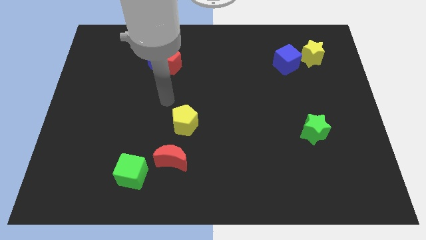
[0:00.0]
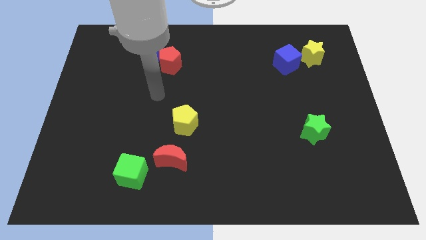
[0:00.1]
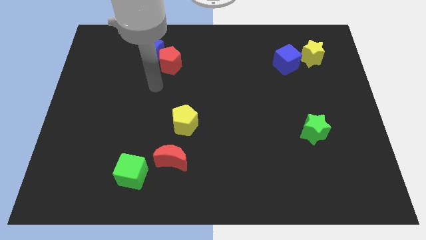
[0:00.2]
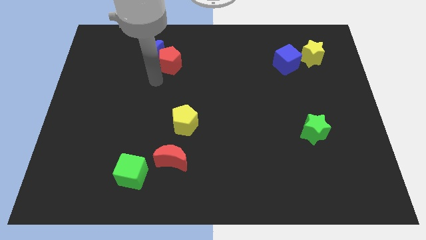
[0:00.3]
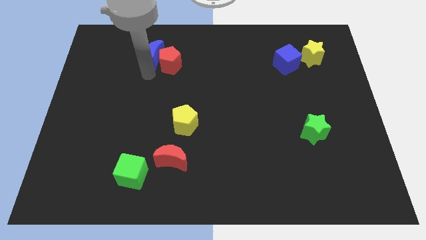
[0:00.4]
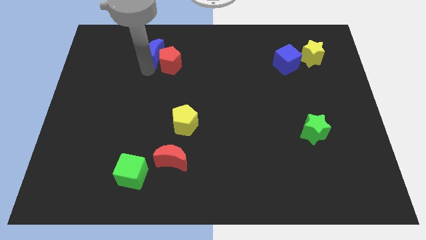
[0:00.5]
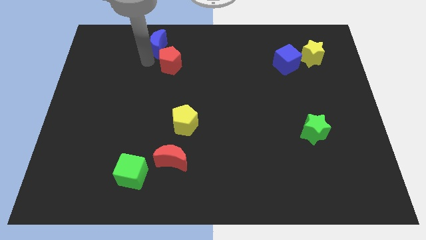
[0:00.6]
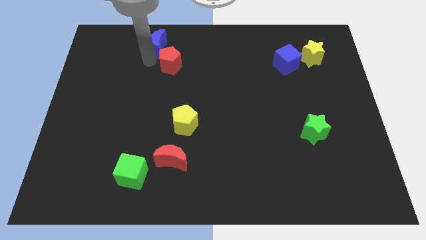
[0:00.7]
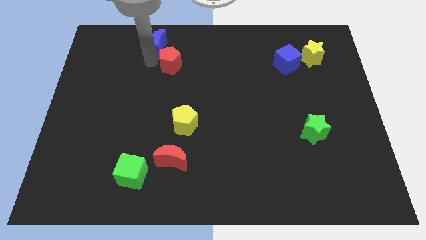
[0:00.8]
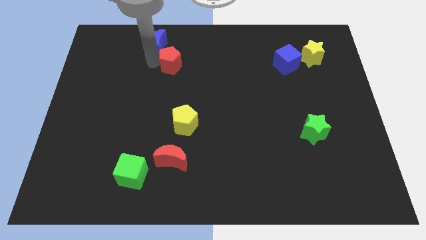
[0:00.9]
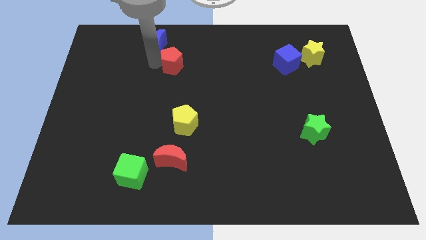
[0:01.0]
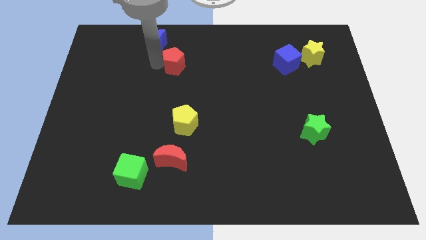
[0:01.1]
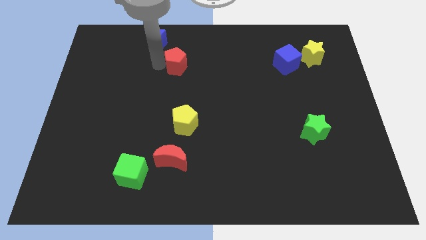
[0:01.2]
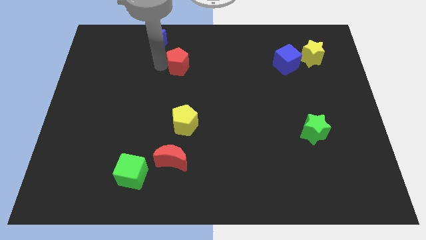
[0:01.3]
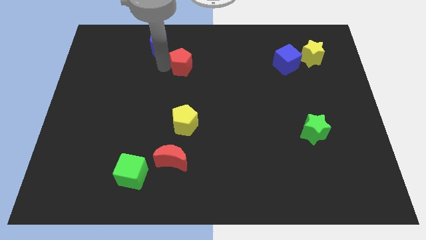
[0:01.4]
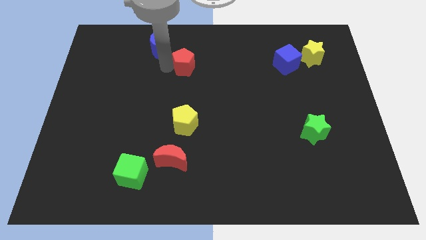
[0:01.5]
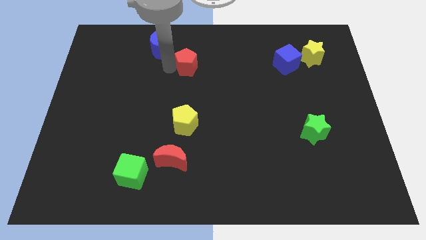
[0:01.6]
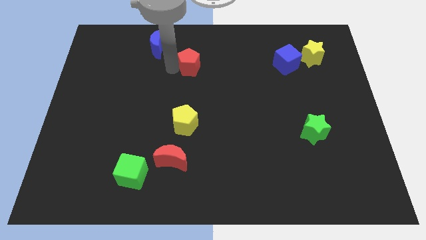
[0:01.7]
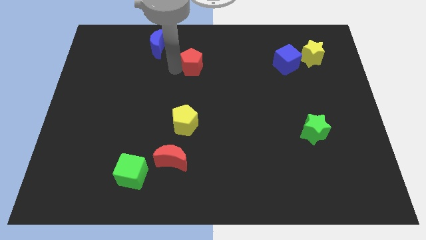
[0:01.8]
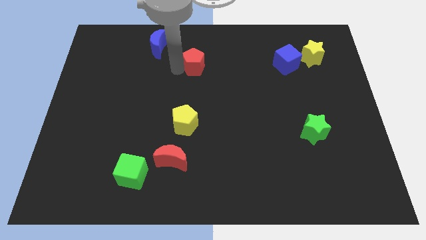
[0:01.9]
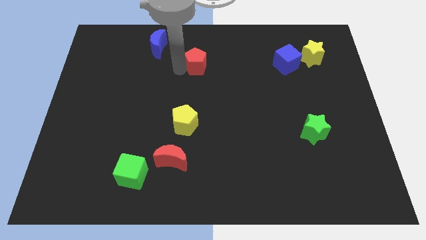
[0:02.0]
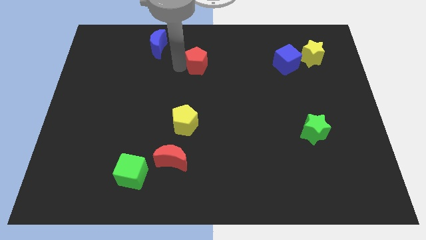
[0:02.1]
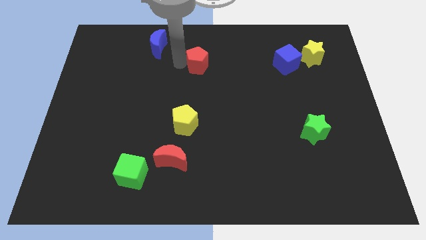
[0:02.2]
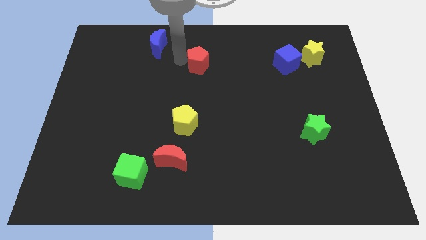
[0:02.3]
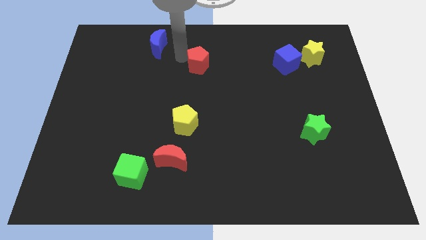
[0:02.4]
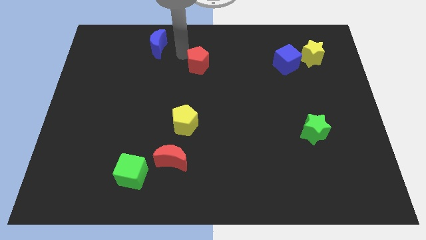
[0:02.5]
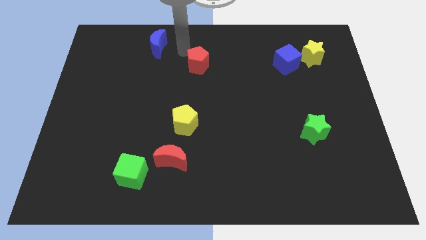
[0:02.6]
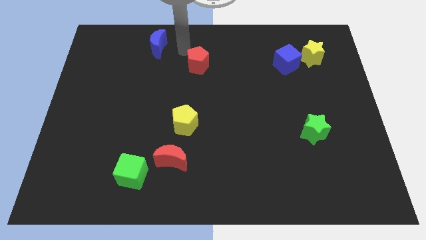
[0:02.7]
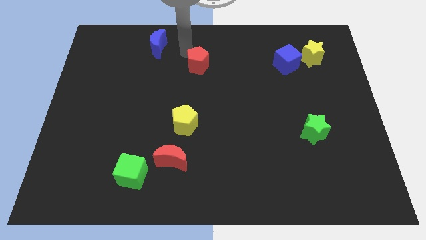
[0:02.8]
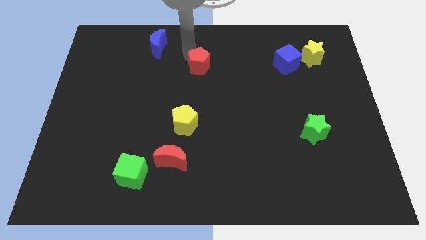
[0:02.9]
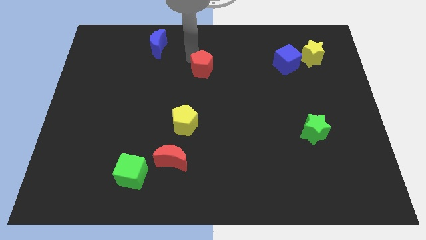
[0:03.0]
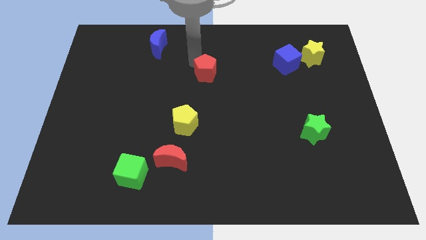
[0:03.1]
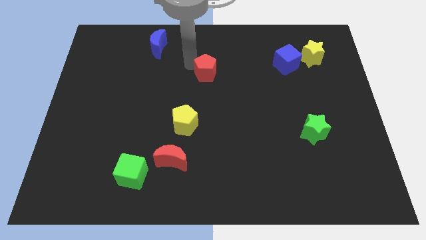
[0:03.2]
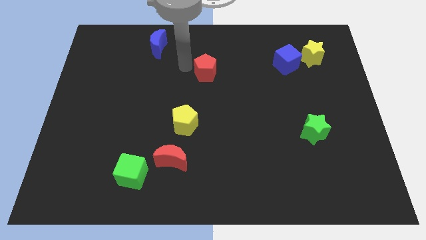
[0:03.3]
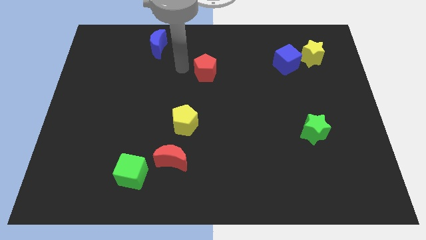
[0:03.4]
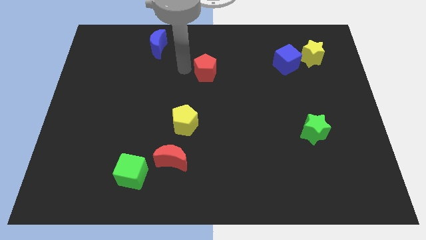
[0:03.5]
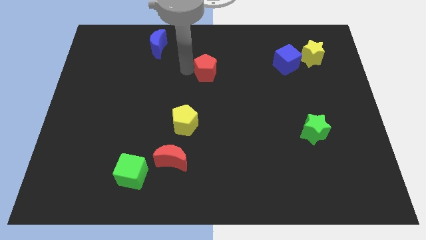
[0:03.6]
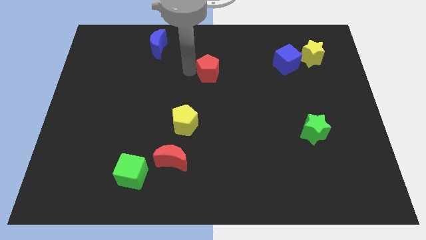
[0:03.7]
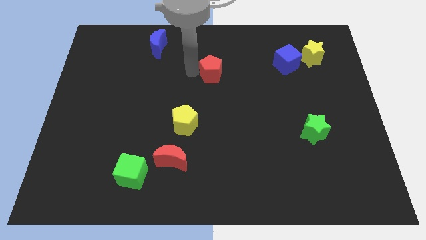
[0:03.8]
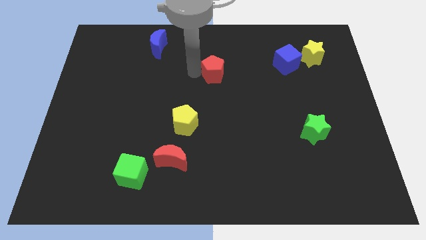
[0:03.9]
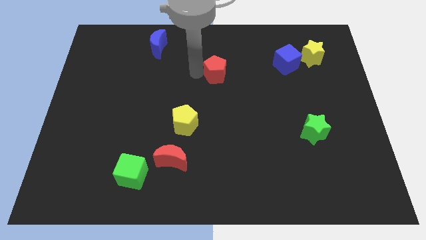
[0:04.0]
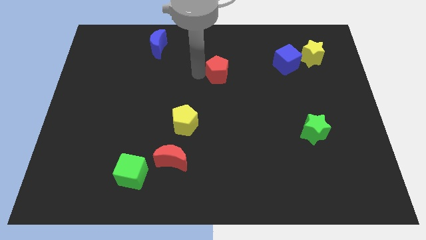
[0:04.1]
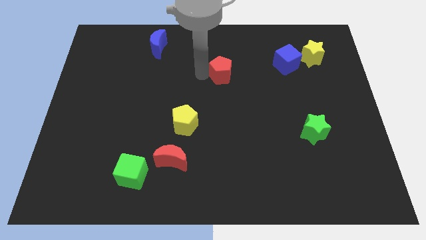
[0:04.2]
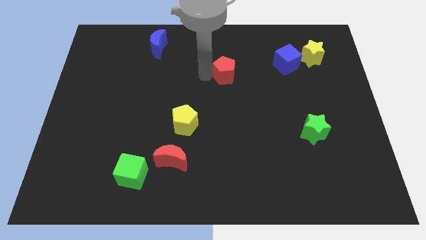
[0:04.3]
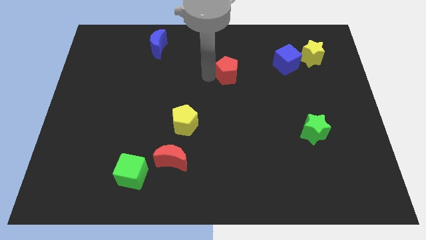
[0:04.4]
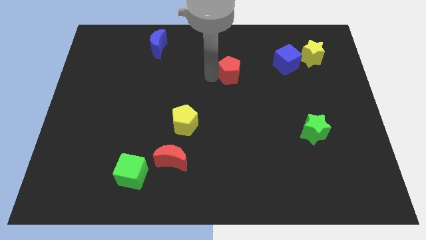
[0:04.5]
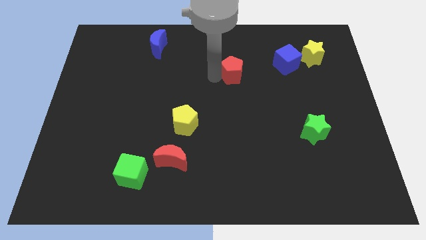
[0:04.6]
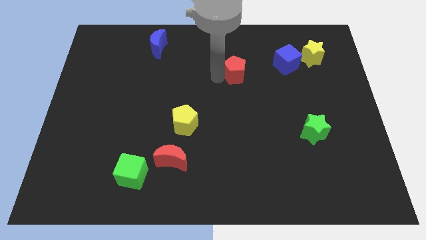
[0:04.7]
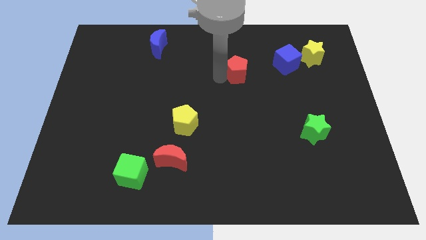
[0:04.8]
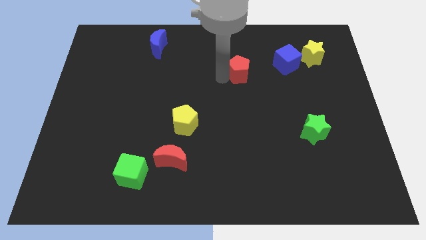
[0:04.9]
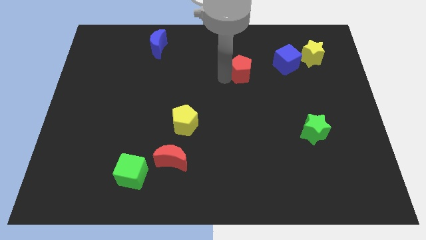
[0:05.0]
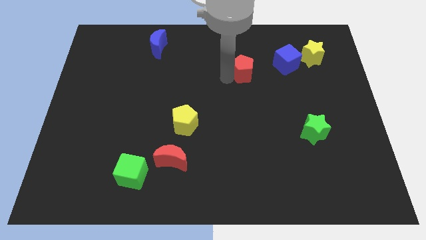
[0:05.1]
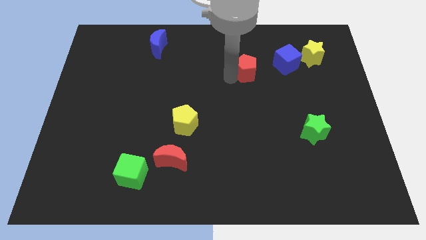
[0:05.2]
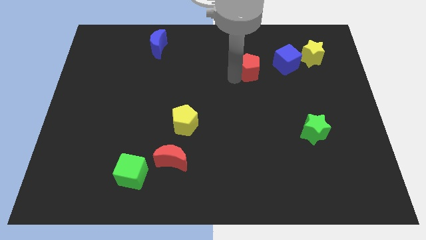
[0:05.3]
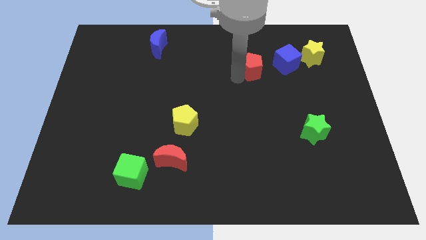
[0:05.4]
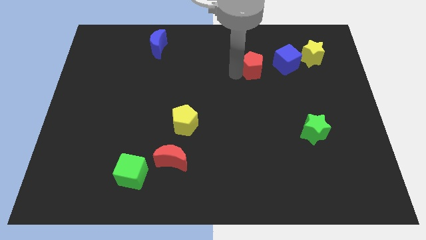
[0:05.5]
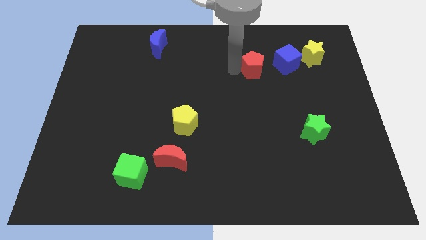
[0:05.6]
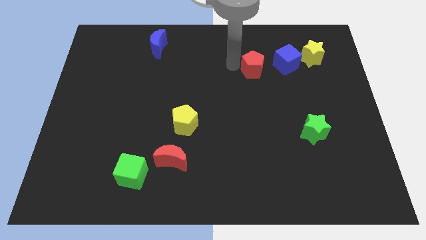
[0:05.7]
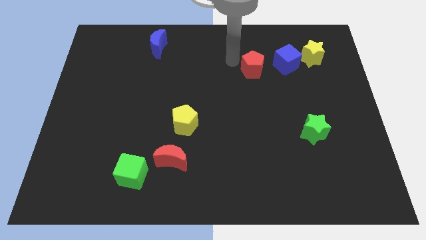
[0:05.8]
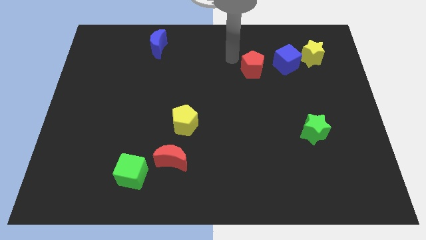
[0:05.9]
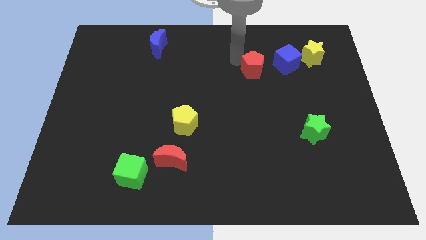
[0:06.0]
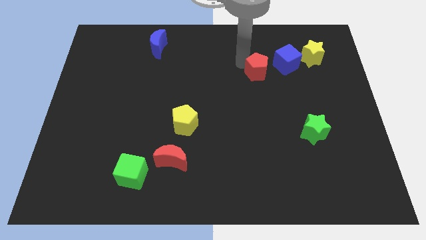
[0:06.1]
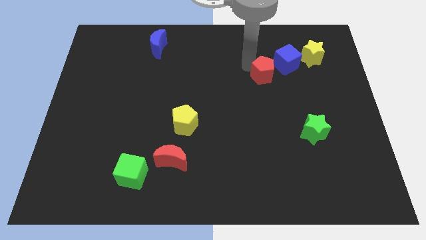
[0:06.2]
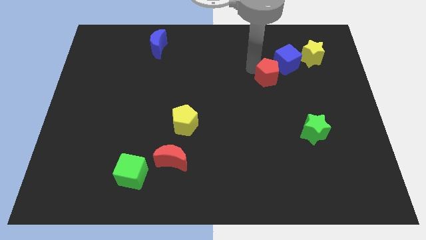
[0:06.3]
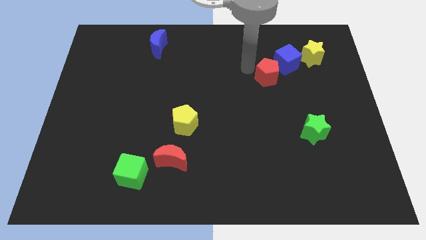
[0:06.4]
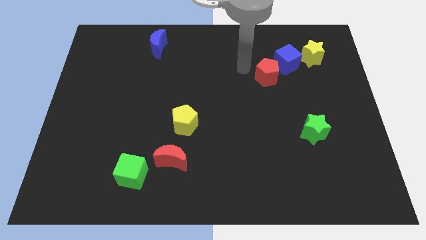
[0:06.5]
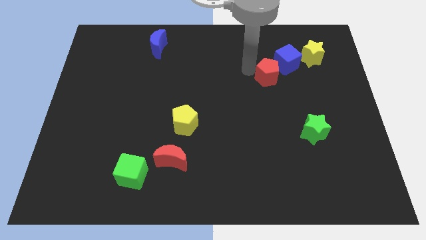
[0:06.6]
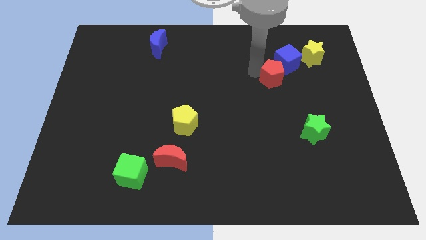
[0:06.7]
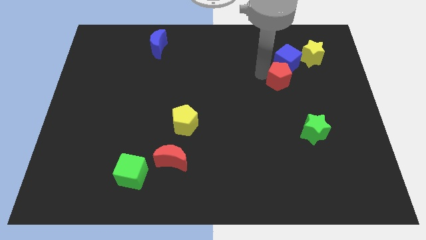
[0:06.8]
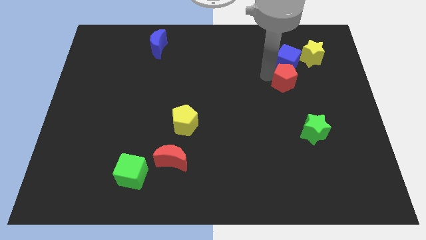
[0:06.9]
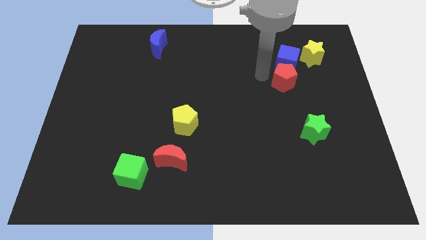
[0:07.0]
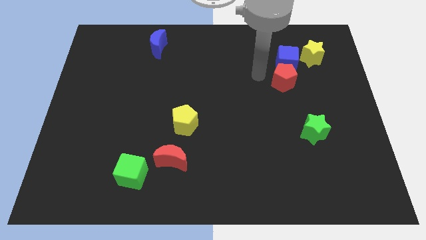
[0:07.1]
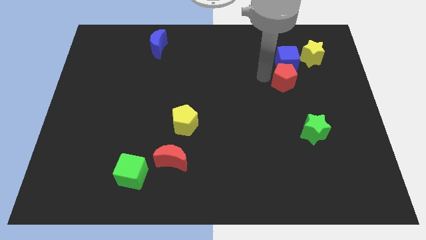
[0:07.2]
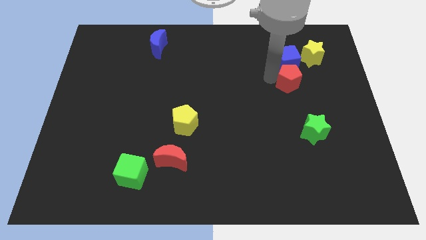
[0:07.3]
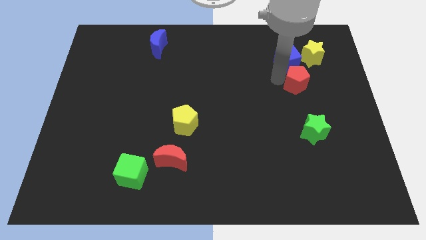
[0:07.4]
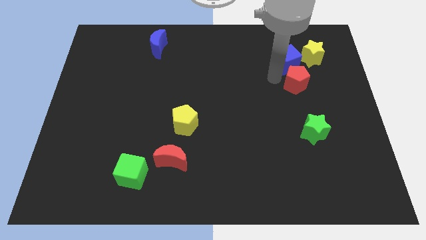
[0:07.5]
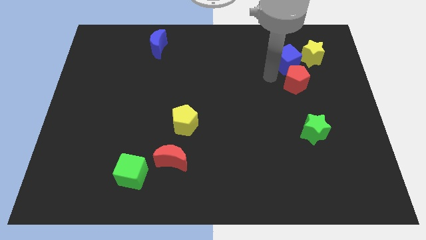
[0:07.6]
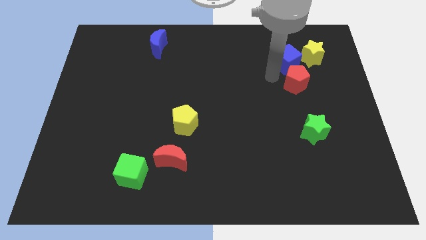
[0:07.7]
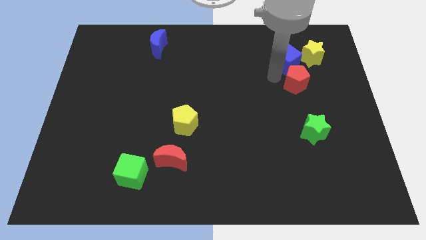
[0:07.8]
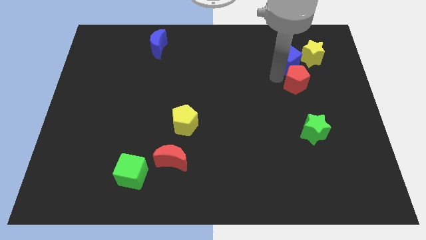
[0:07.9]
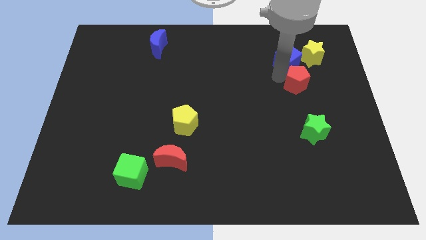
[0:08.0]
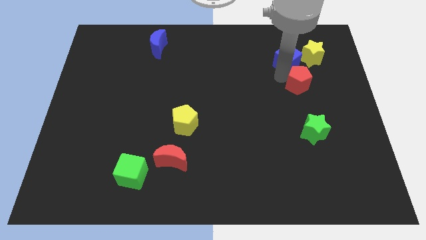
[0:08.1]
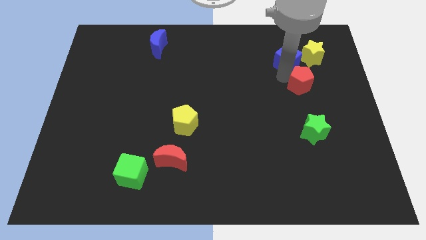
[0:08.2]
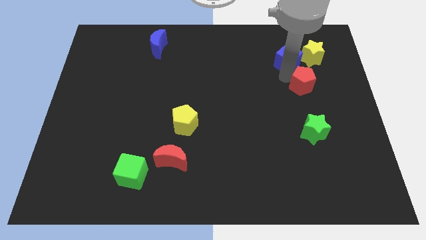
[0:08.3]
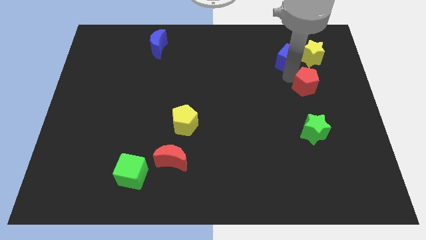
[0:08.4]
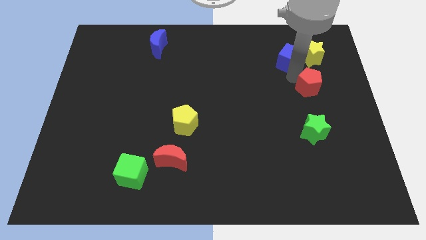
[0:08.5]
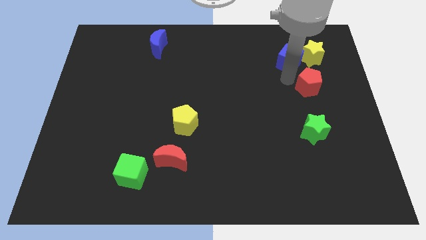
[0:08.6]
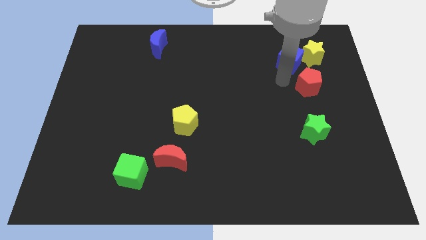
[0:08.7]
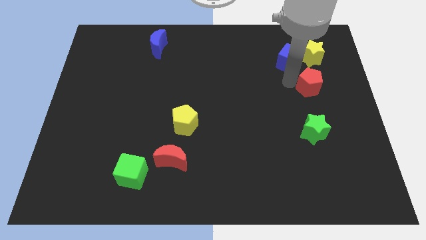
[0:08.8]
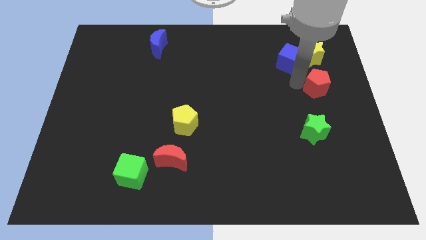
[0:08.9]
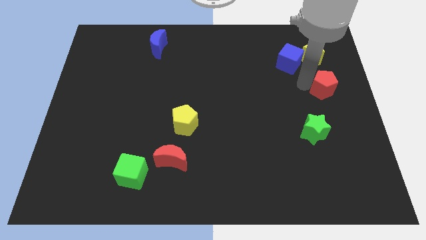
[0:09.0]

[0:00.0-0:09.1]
push the red pentagon to the right side of the board
